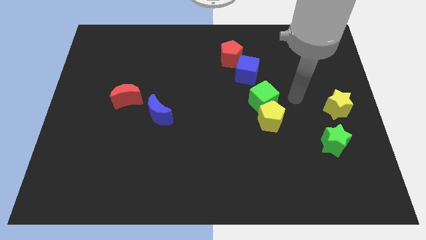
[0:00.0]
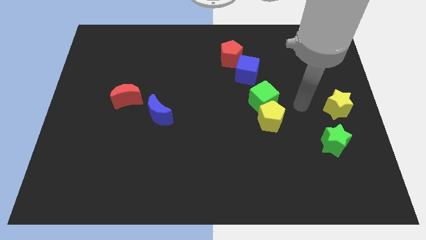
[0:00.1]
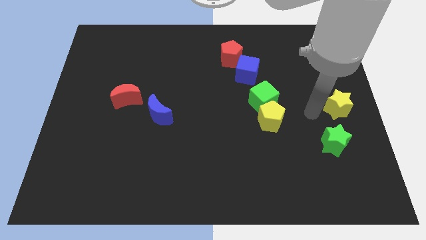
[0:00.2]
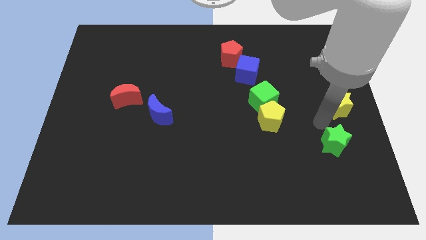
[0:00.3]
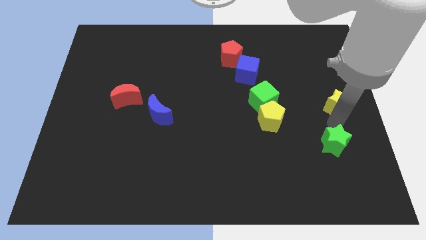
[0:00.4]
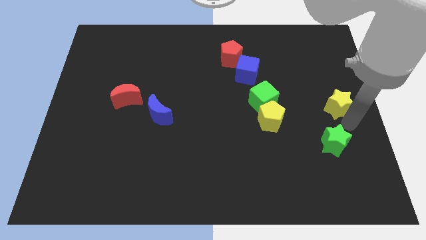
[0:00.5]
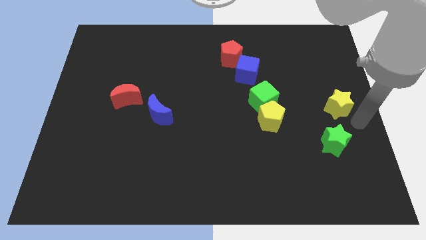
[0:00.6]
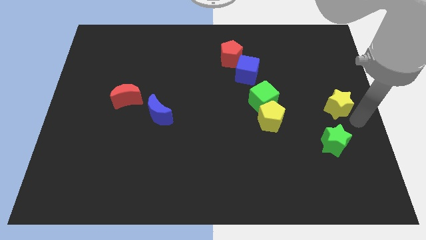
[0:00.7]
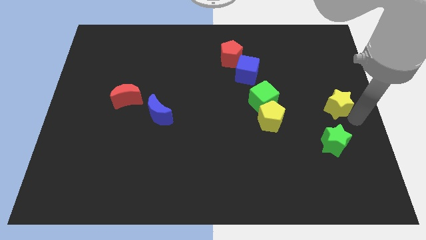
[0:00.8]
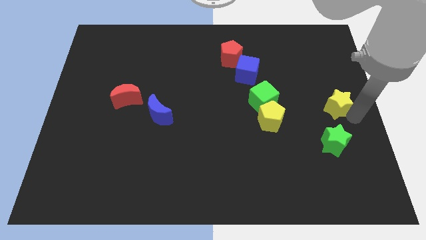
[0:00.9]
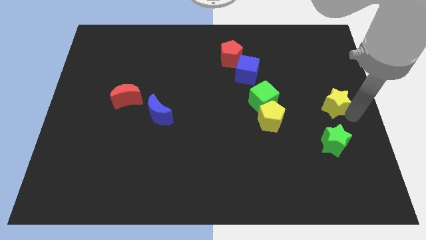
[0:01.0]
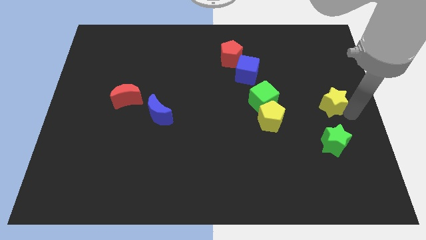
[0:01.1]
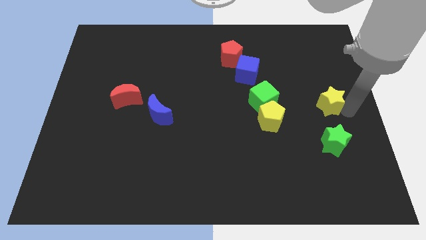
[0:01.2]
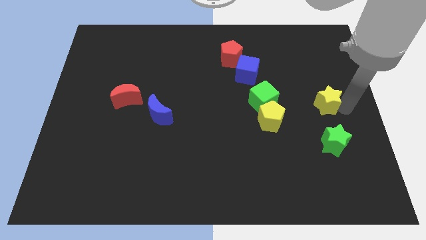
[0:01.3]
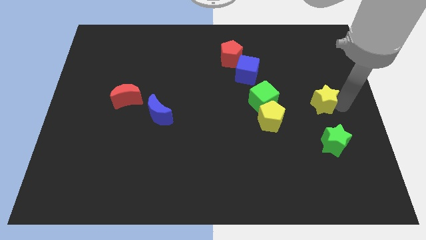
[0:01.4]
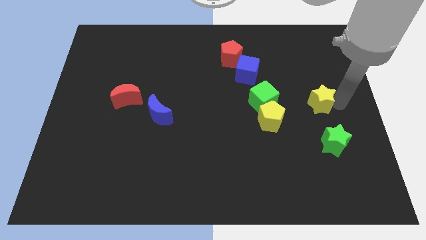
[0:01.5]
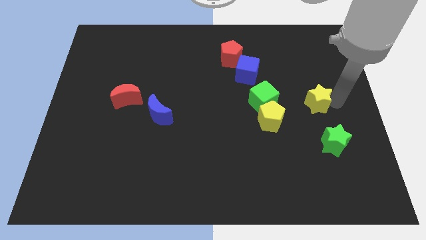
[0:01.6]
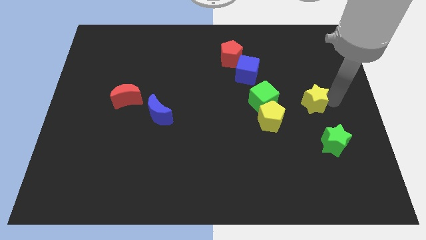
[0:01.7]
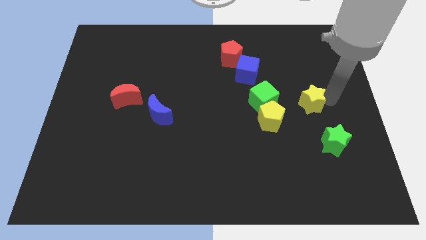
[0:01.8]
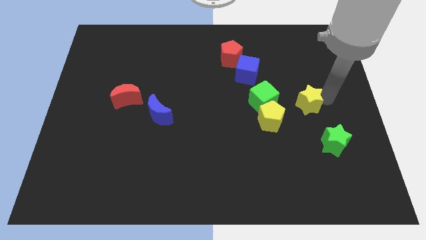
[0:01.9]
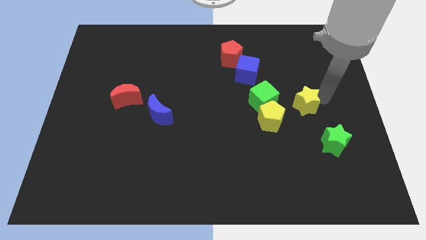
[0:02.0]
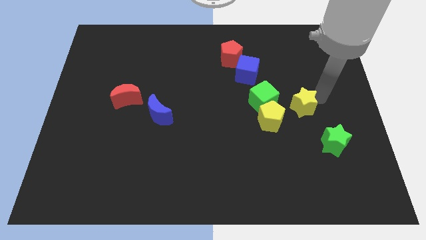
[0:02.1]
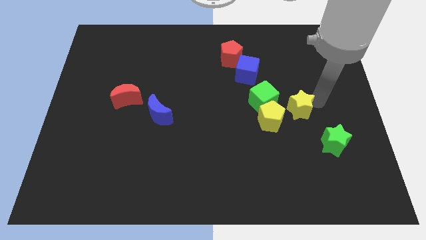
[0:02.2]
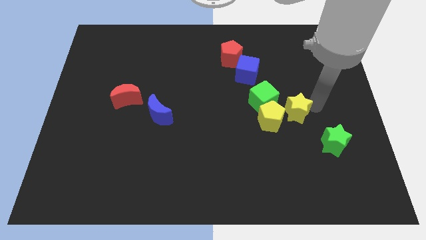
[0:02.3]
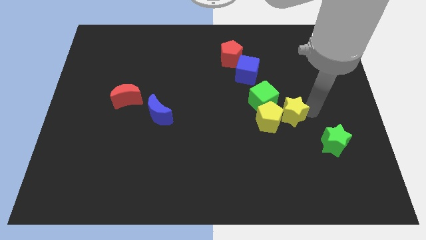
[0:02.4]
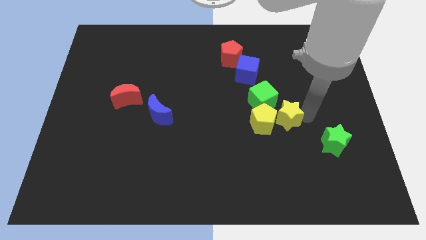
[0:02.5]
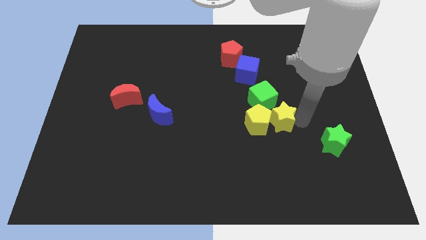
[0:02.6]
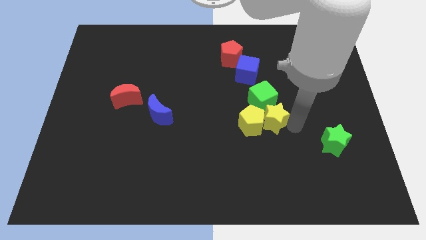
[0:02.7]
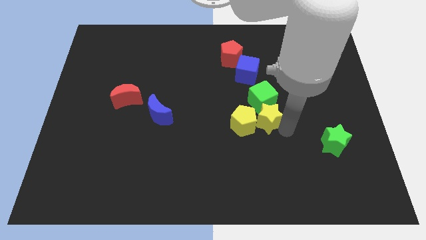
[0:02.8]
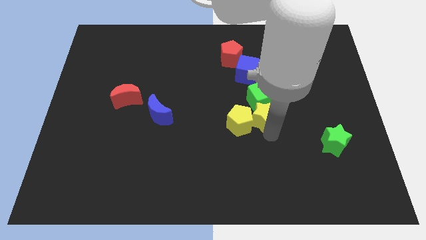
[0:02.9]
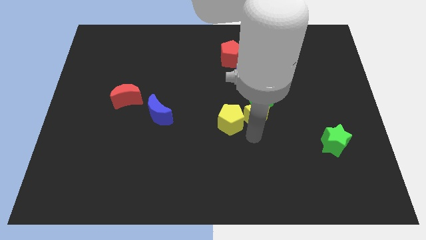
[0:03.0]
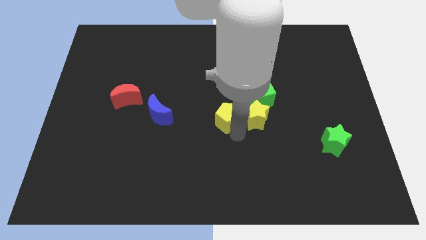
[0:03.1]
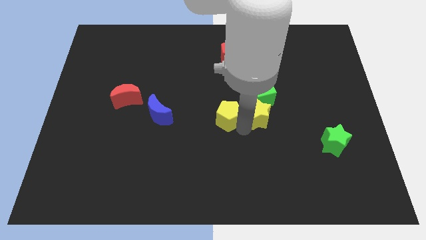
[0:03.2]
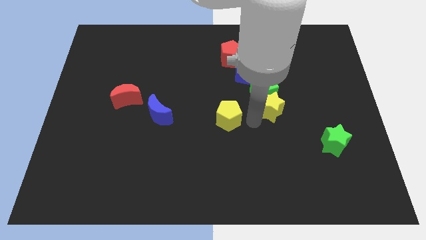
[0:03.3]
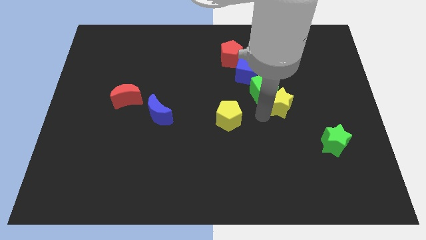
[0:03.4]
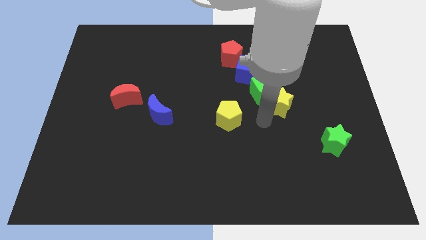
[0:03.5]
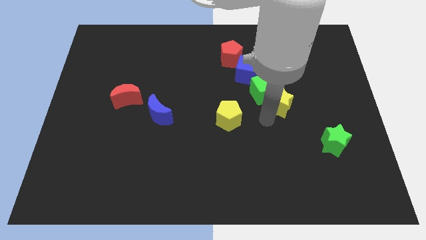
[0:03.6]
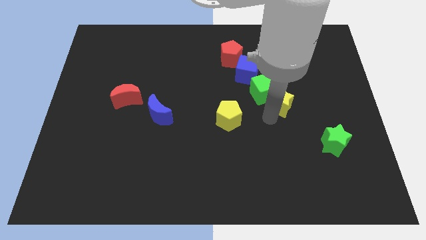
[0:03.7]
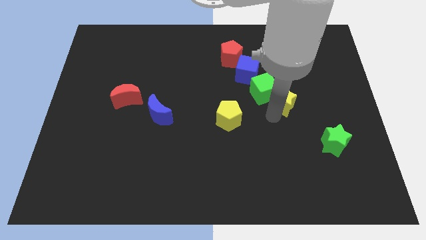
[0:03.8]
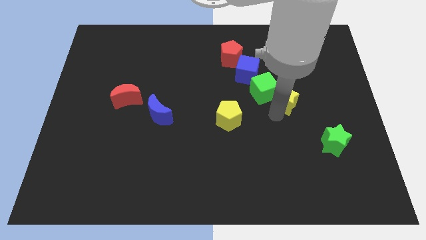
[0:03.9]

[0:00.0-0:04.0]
slide the yellow star diagonally up and left a bit

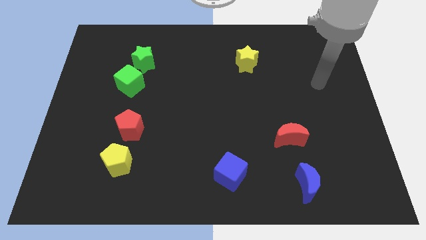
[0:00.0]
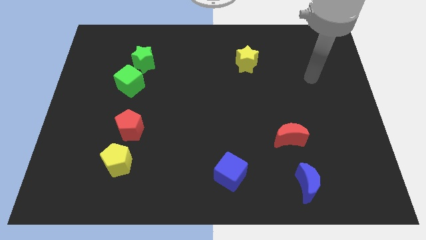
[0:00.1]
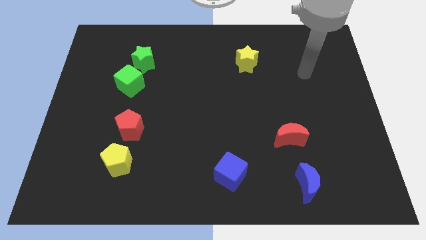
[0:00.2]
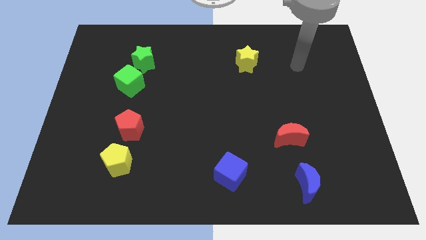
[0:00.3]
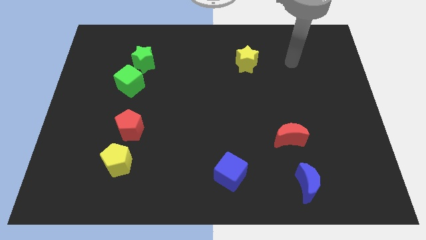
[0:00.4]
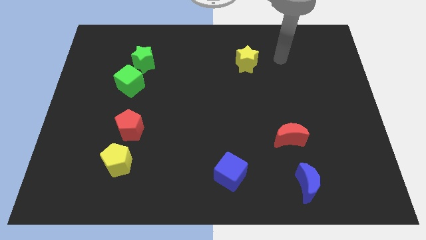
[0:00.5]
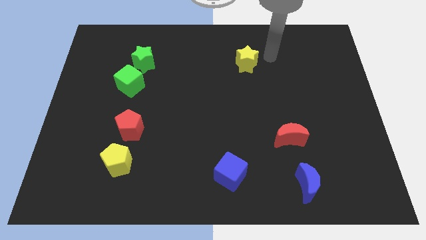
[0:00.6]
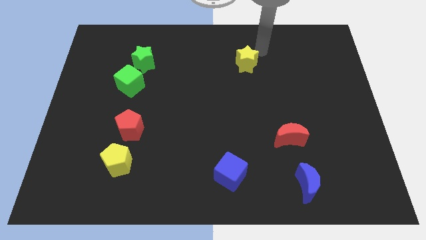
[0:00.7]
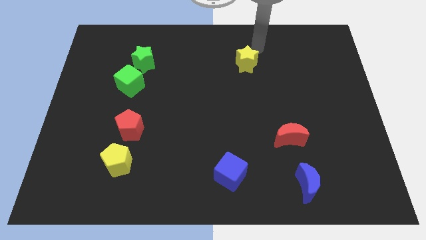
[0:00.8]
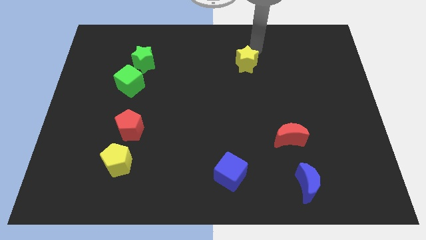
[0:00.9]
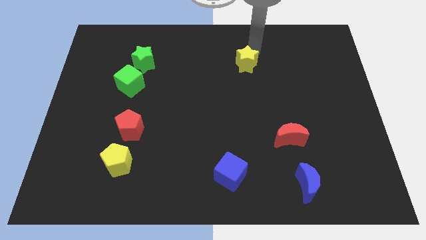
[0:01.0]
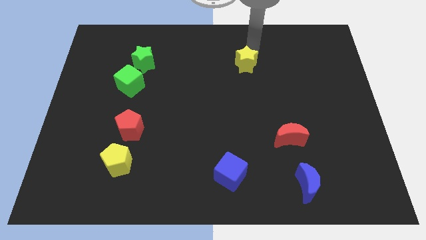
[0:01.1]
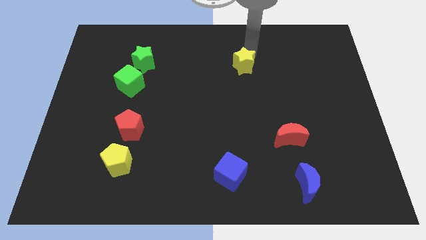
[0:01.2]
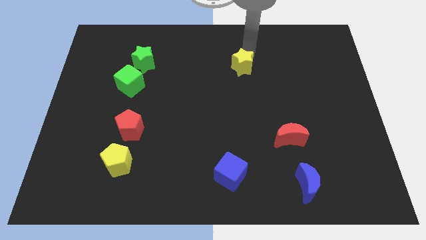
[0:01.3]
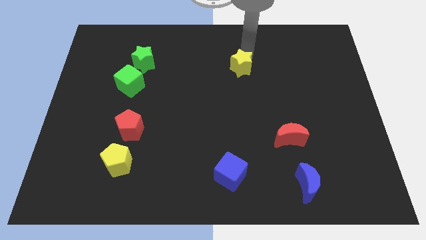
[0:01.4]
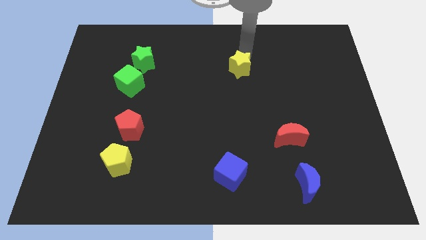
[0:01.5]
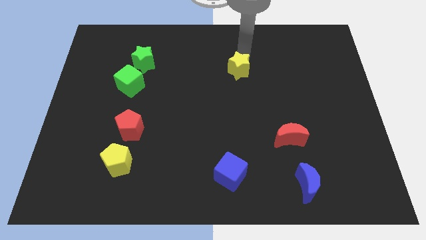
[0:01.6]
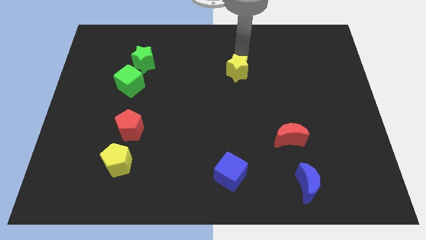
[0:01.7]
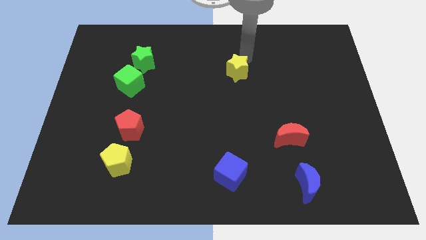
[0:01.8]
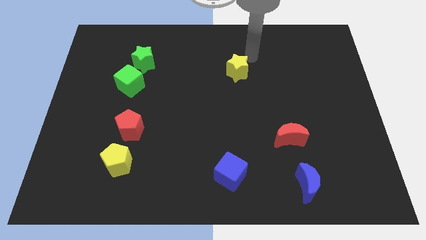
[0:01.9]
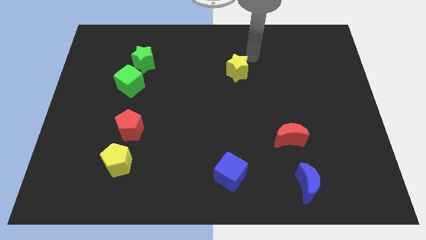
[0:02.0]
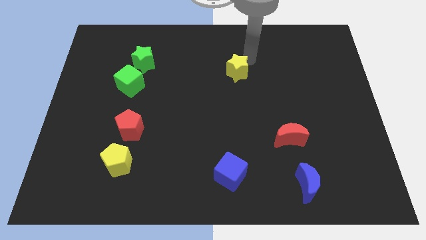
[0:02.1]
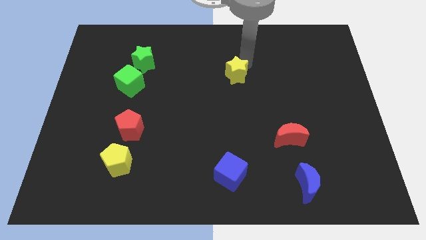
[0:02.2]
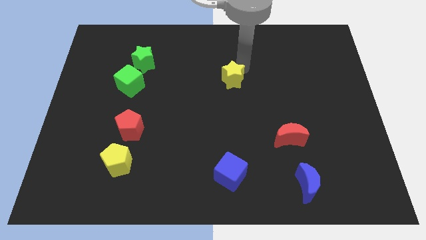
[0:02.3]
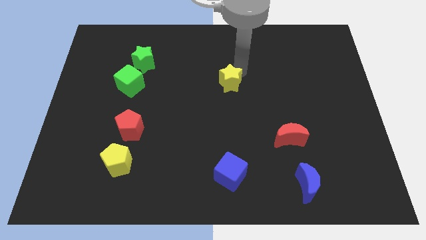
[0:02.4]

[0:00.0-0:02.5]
slide the yellow star downwards and left diagonally slightly

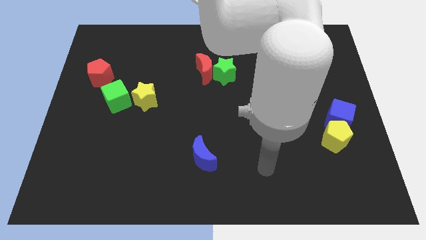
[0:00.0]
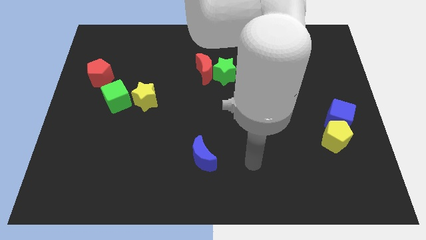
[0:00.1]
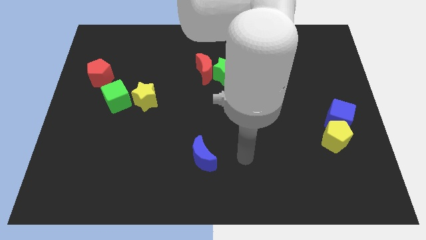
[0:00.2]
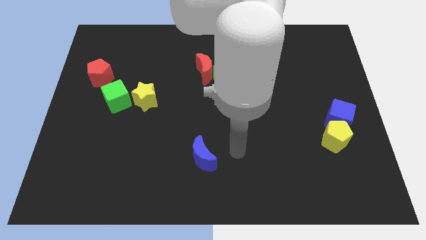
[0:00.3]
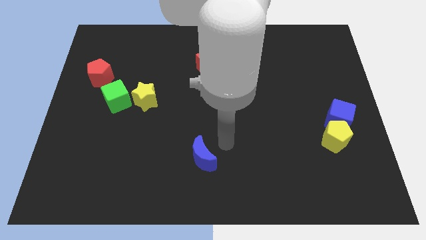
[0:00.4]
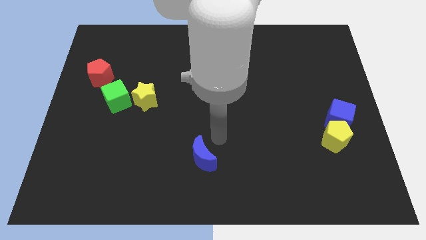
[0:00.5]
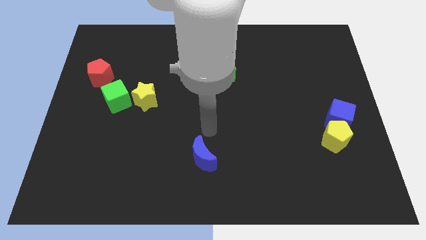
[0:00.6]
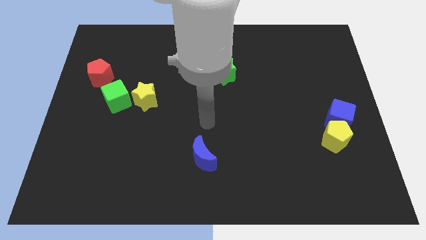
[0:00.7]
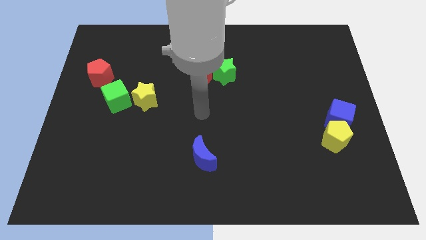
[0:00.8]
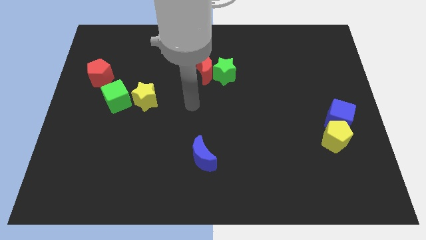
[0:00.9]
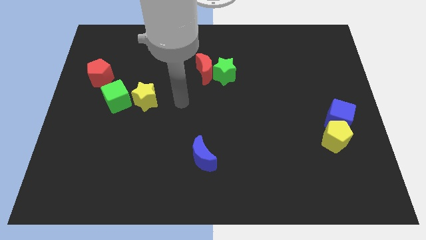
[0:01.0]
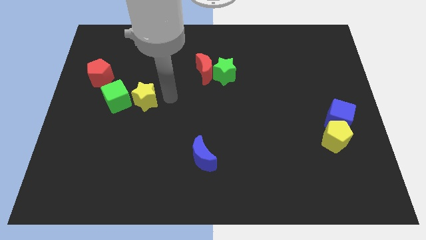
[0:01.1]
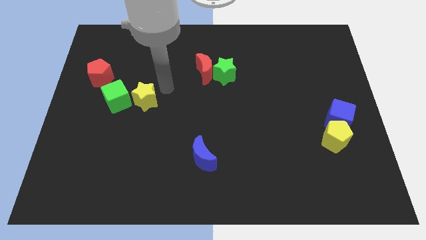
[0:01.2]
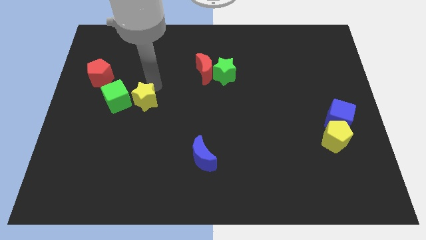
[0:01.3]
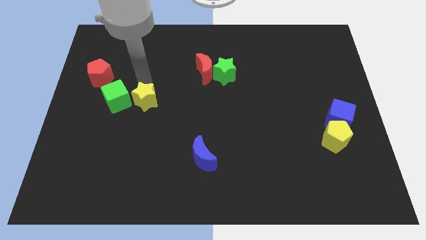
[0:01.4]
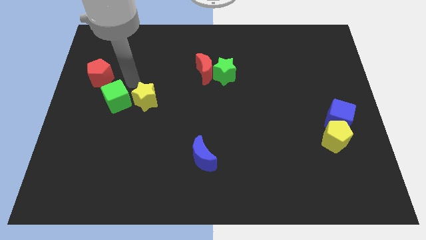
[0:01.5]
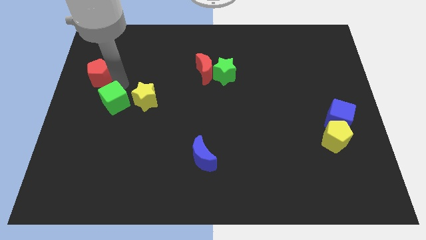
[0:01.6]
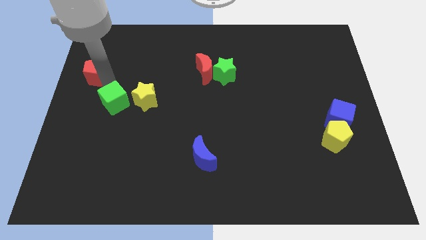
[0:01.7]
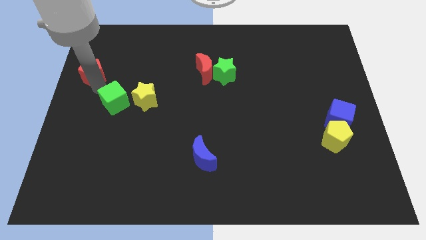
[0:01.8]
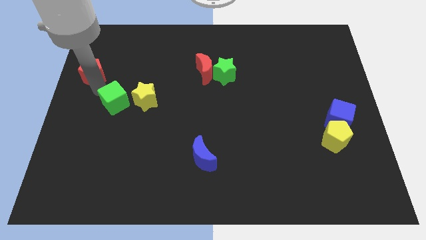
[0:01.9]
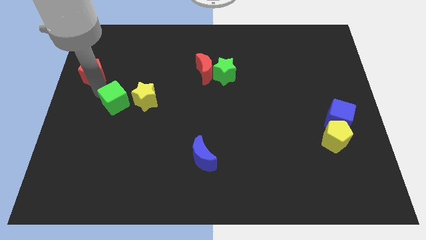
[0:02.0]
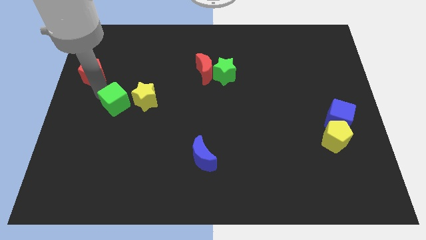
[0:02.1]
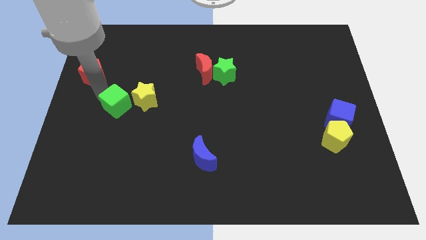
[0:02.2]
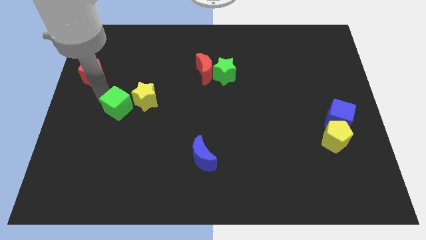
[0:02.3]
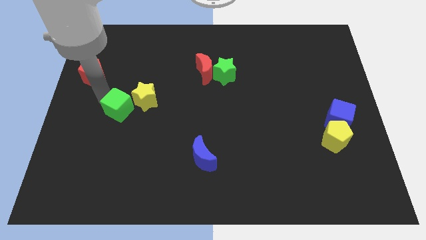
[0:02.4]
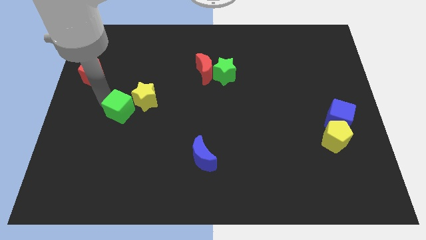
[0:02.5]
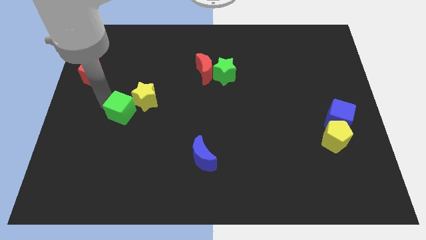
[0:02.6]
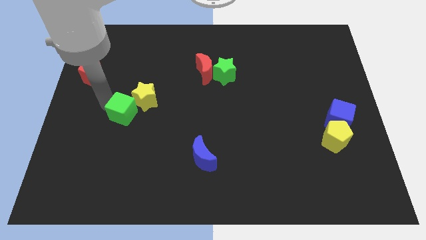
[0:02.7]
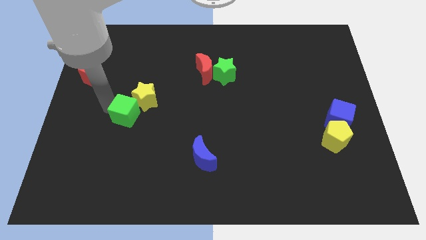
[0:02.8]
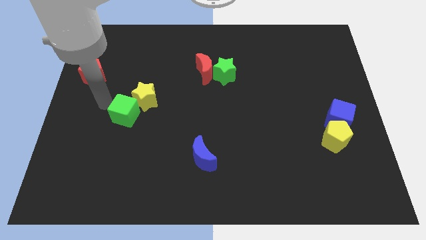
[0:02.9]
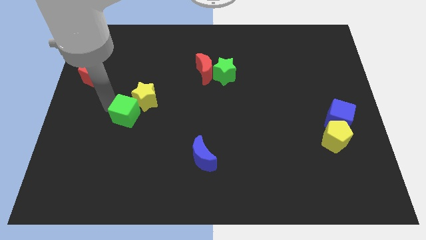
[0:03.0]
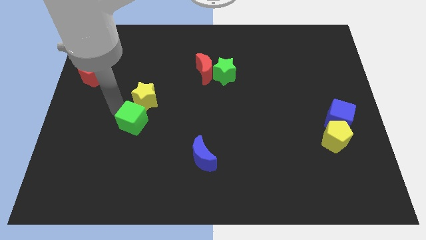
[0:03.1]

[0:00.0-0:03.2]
slightly push the green cube down and right
